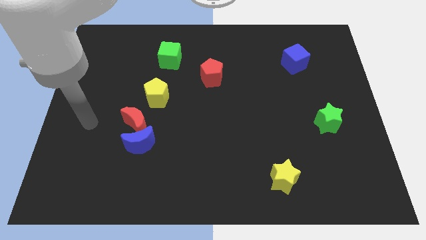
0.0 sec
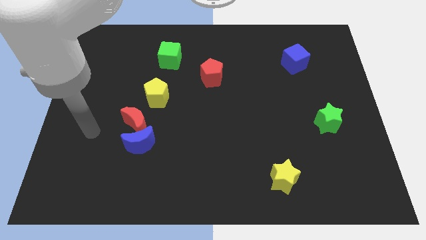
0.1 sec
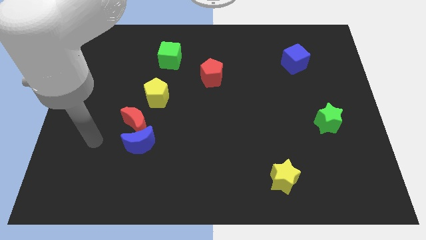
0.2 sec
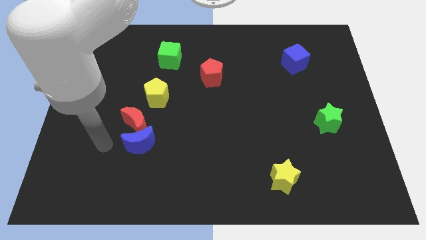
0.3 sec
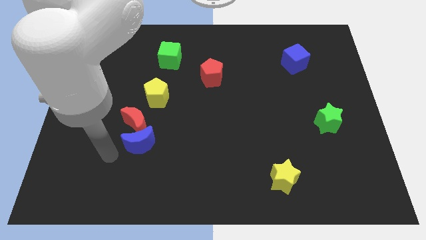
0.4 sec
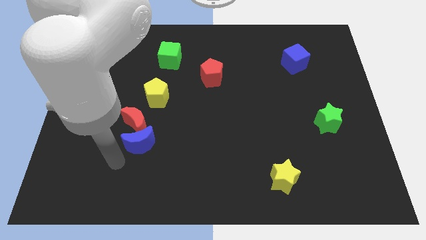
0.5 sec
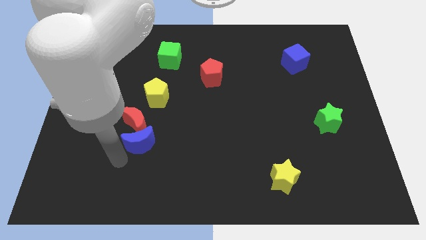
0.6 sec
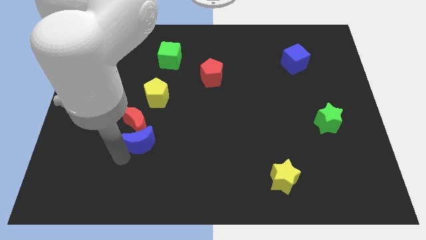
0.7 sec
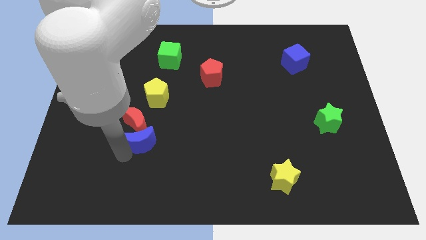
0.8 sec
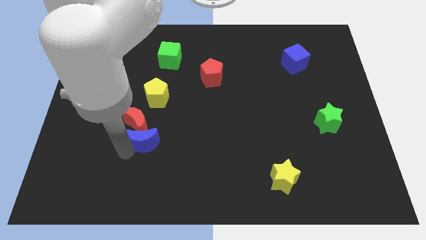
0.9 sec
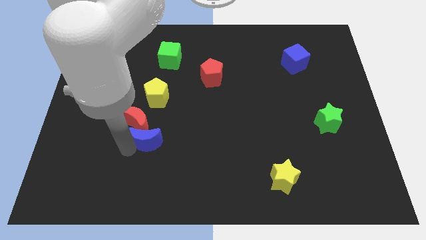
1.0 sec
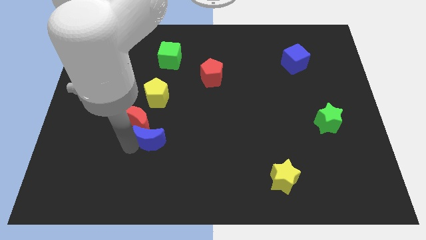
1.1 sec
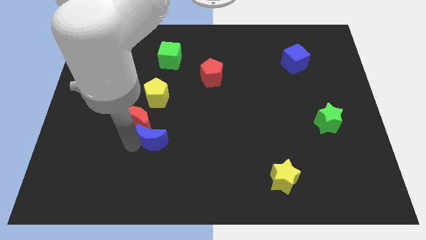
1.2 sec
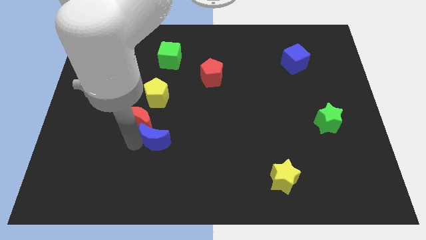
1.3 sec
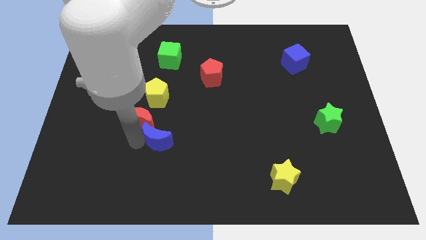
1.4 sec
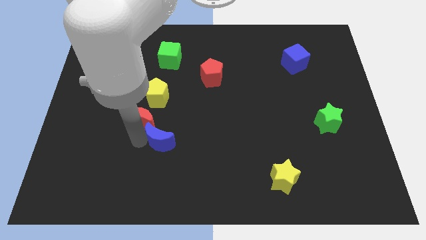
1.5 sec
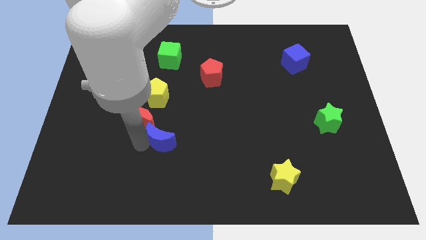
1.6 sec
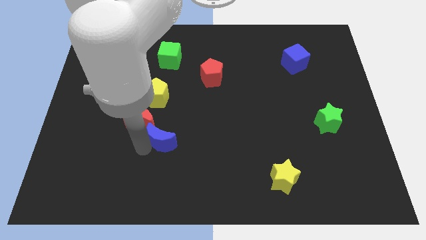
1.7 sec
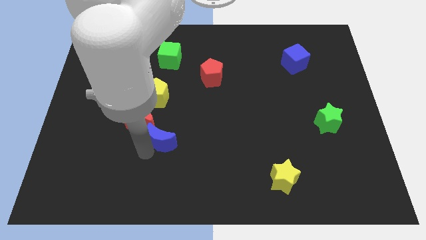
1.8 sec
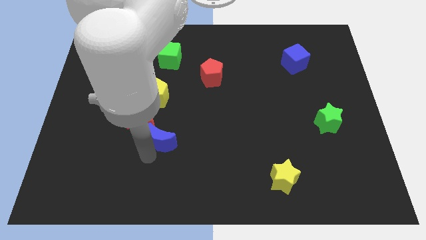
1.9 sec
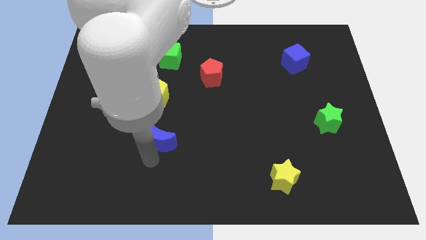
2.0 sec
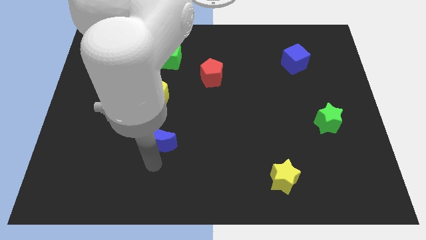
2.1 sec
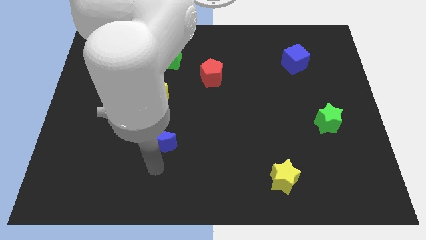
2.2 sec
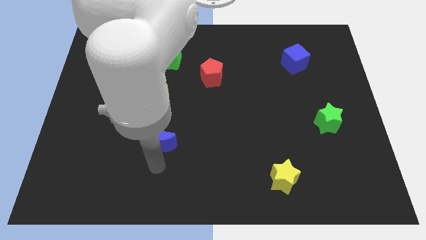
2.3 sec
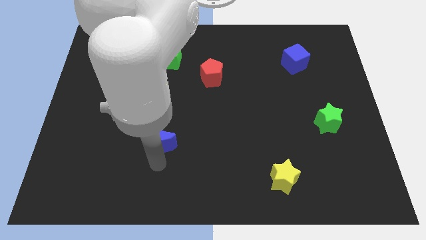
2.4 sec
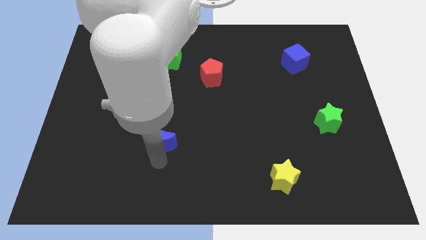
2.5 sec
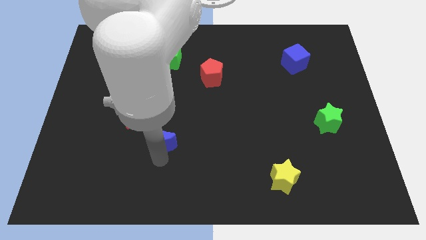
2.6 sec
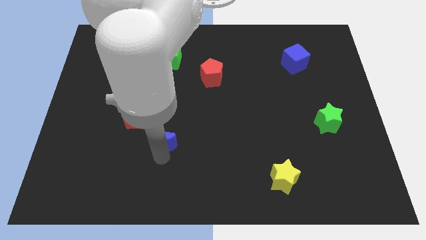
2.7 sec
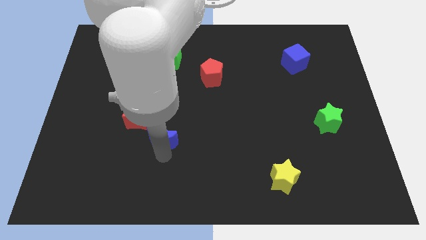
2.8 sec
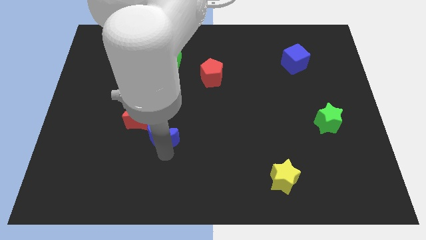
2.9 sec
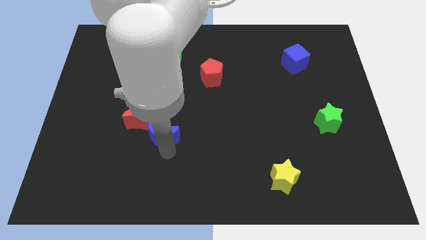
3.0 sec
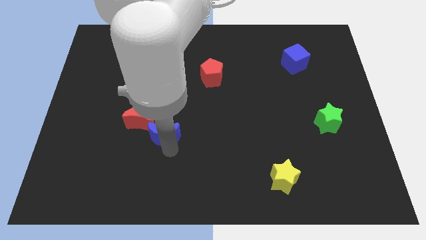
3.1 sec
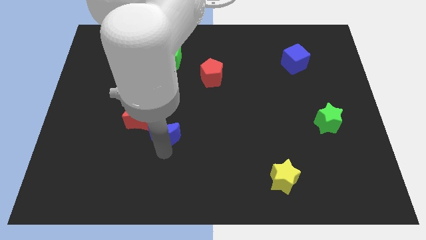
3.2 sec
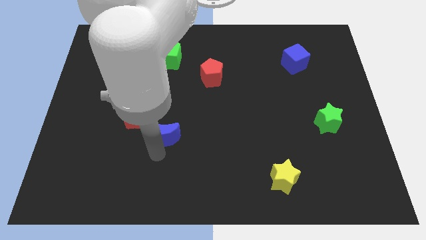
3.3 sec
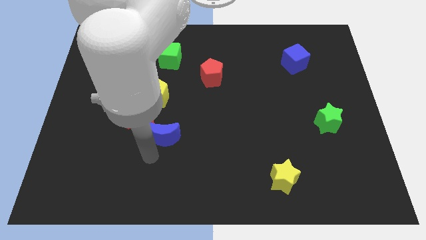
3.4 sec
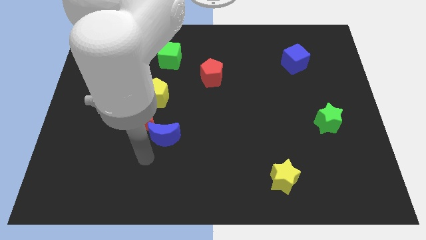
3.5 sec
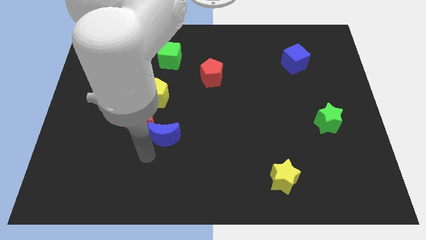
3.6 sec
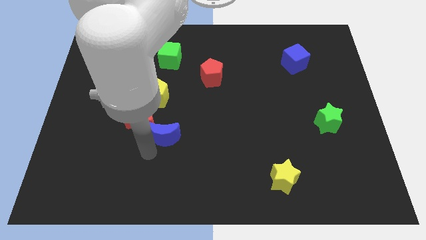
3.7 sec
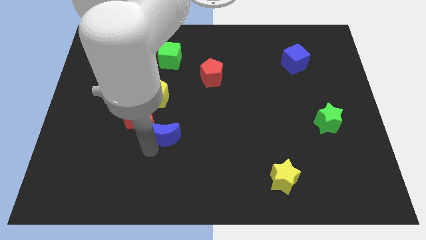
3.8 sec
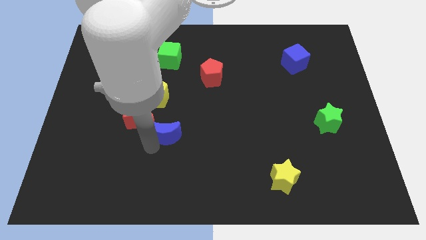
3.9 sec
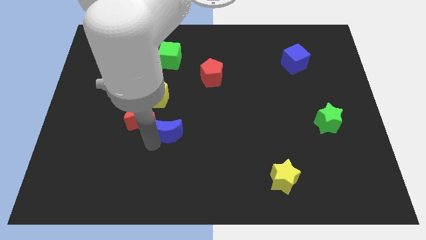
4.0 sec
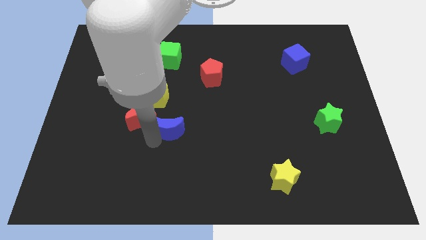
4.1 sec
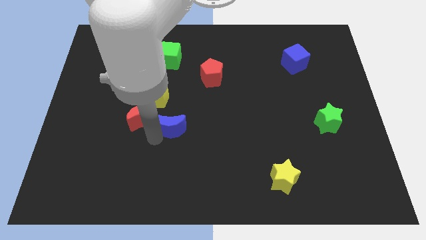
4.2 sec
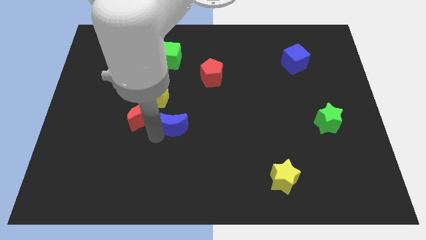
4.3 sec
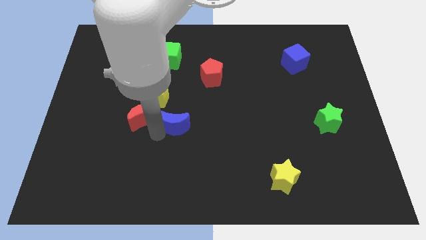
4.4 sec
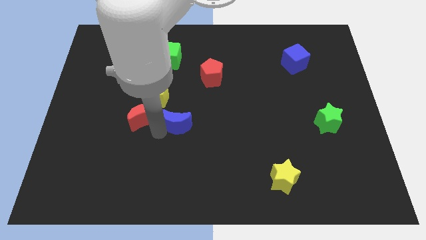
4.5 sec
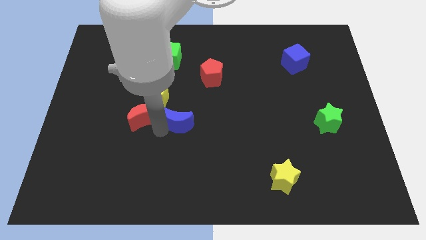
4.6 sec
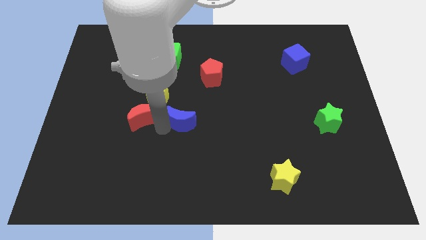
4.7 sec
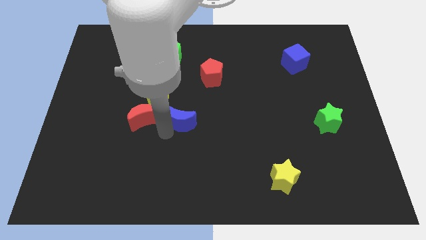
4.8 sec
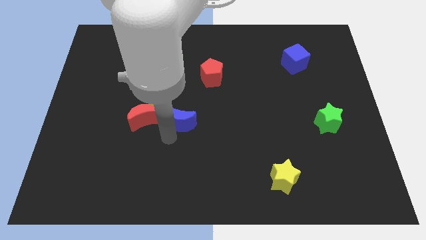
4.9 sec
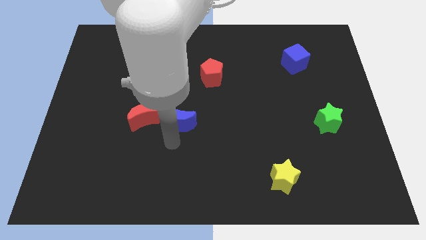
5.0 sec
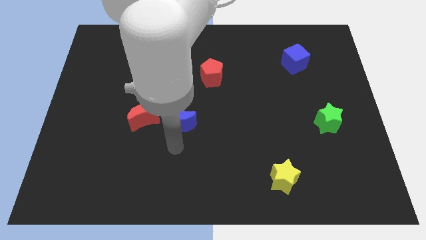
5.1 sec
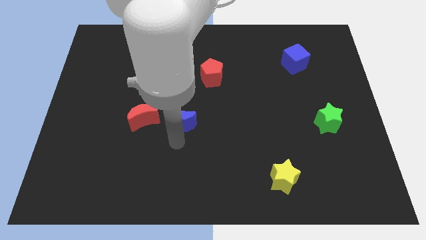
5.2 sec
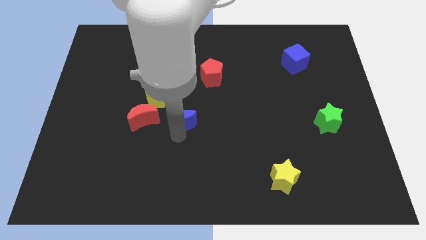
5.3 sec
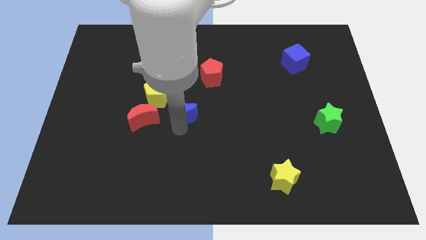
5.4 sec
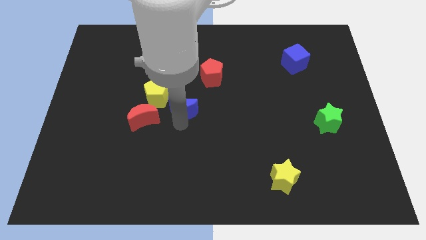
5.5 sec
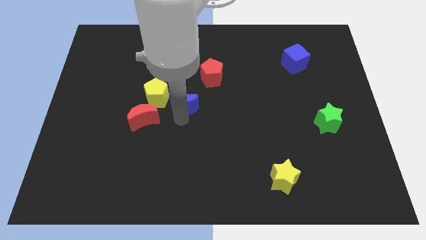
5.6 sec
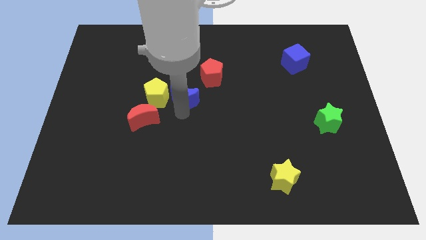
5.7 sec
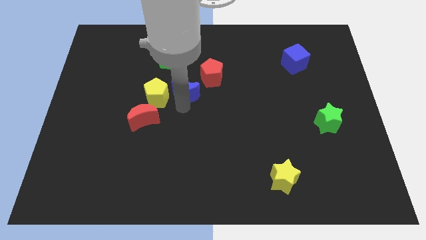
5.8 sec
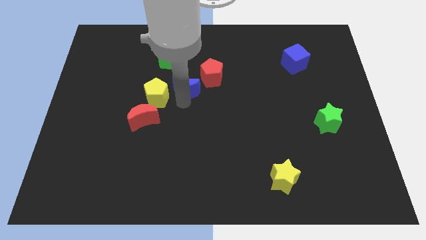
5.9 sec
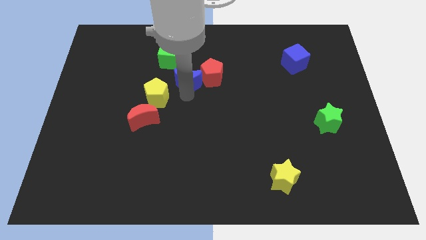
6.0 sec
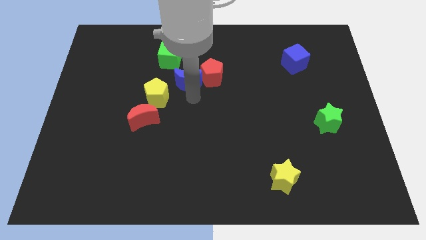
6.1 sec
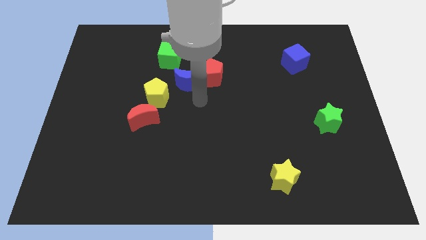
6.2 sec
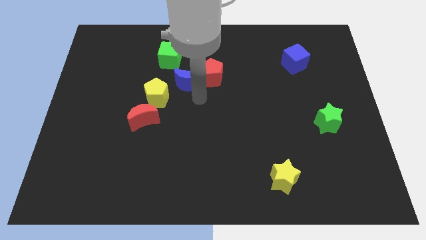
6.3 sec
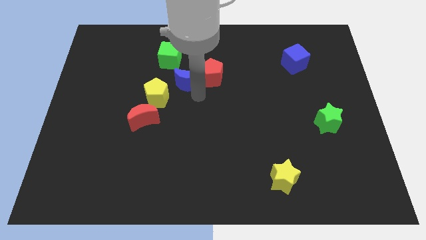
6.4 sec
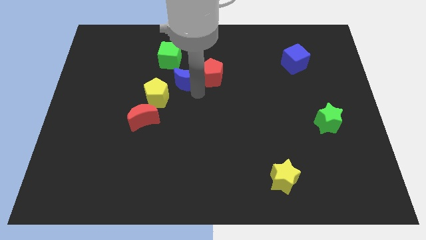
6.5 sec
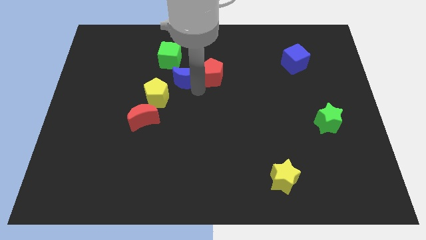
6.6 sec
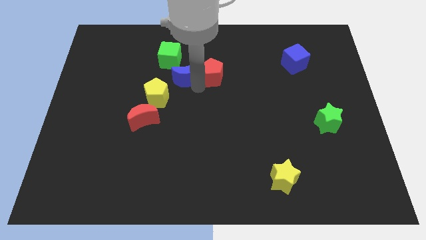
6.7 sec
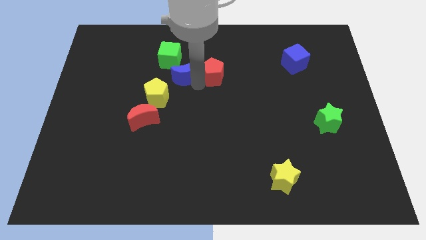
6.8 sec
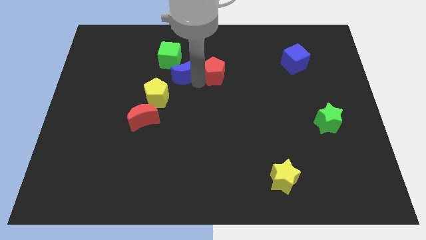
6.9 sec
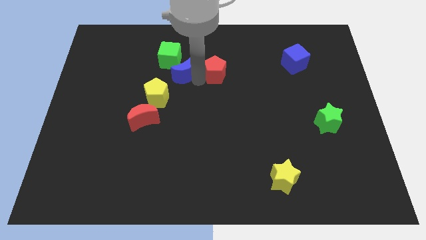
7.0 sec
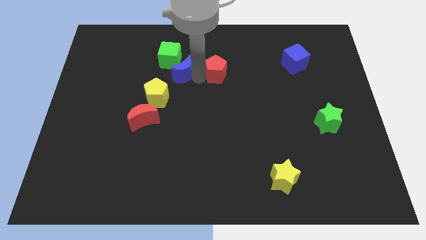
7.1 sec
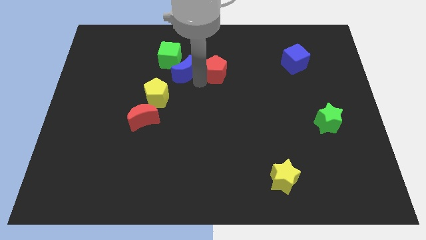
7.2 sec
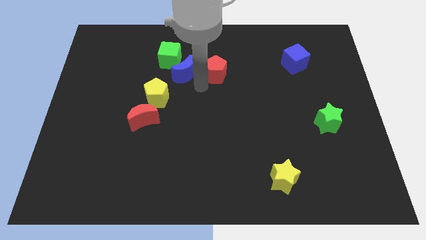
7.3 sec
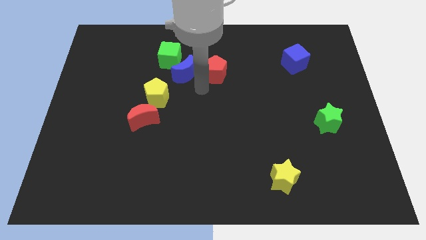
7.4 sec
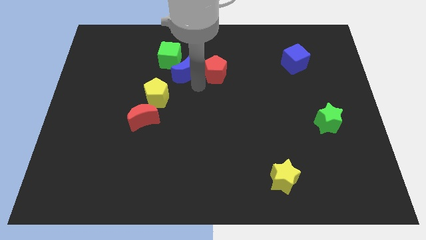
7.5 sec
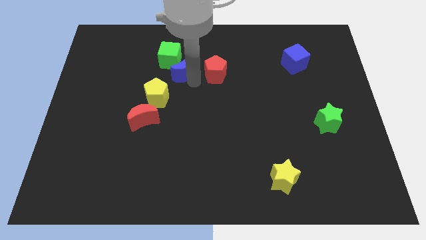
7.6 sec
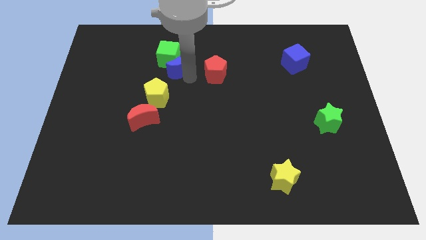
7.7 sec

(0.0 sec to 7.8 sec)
slide the blue moon next to the green cube
